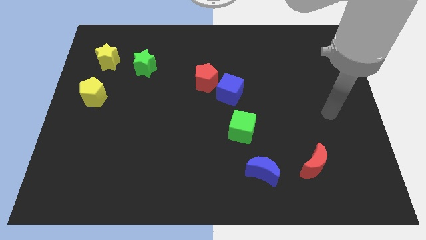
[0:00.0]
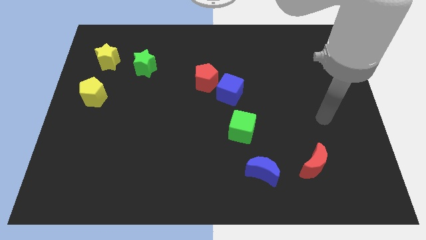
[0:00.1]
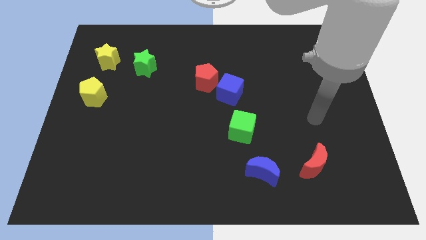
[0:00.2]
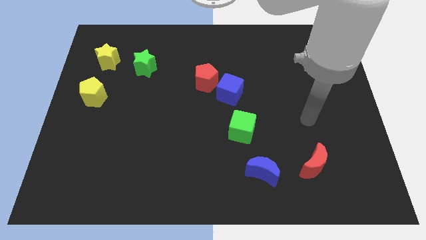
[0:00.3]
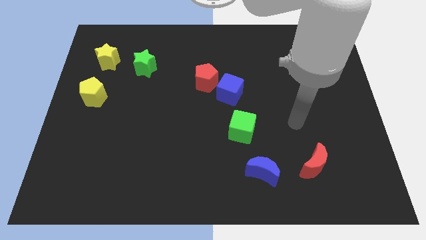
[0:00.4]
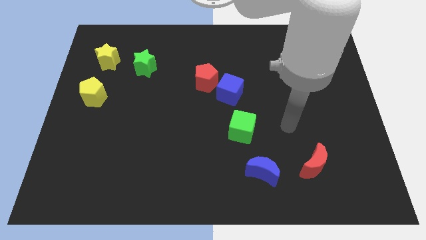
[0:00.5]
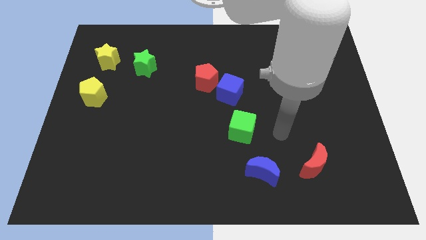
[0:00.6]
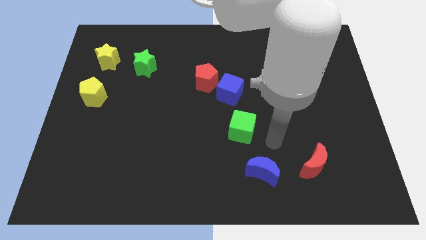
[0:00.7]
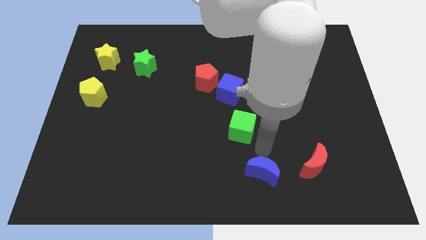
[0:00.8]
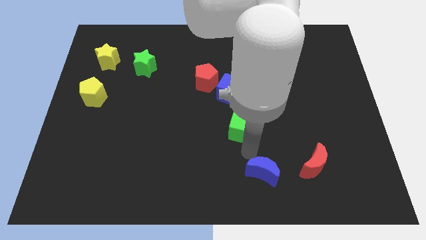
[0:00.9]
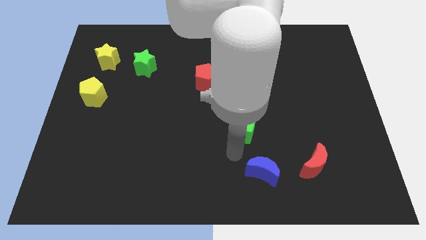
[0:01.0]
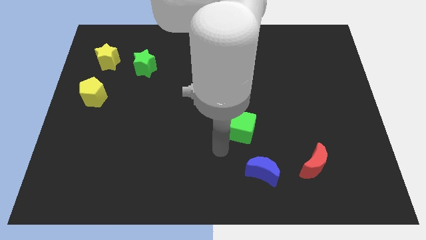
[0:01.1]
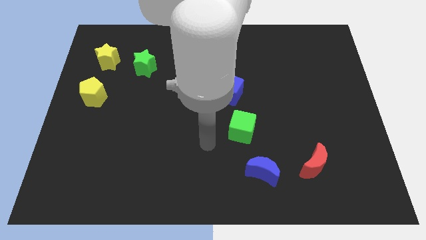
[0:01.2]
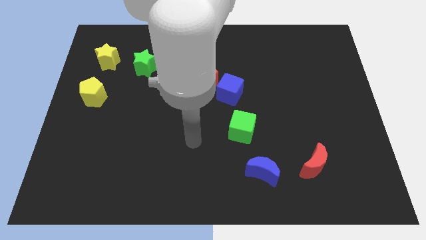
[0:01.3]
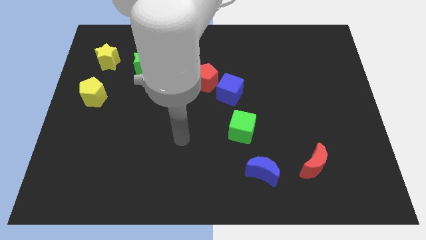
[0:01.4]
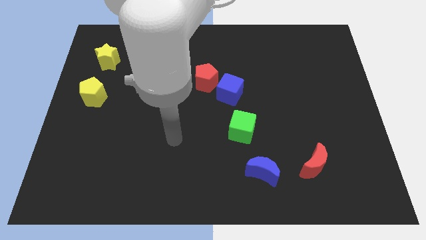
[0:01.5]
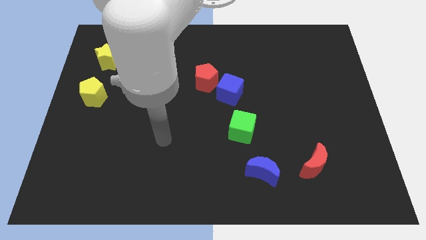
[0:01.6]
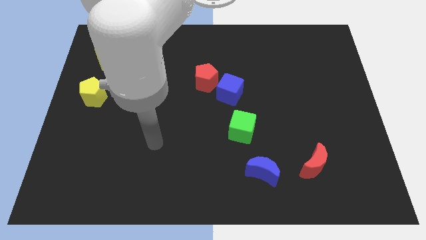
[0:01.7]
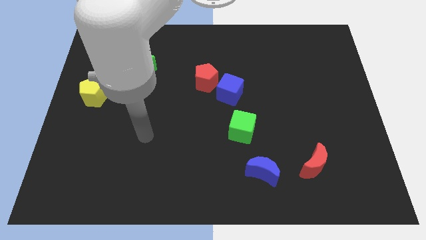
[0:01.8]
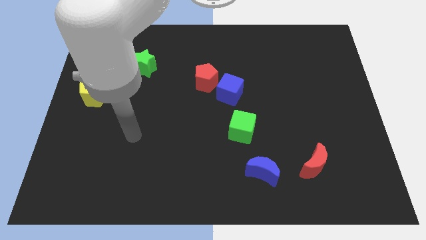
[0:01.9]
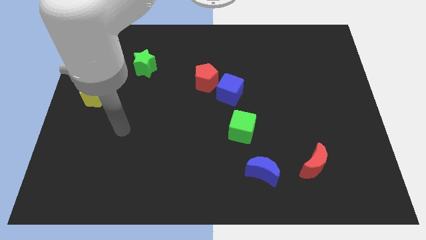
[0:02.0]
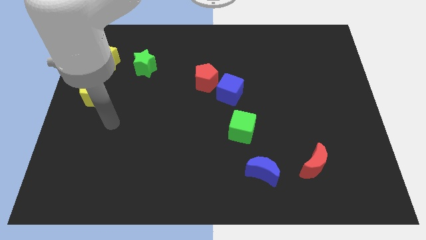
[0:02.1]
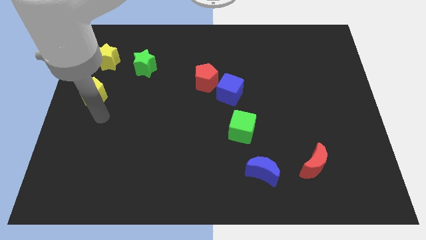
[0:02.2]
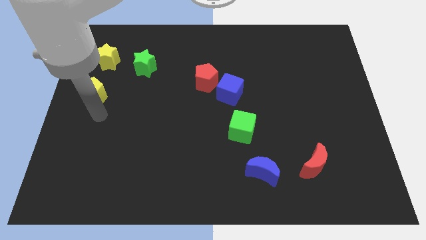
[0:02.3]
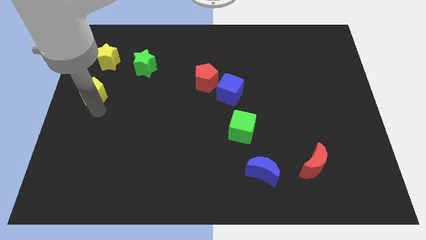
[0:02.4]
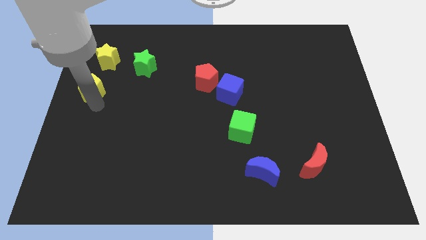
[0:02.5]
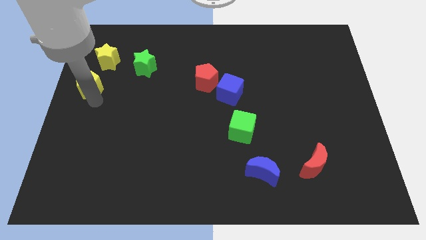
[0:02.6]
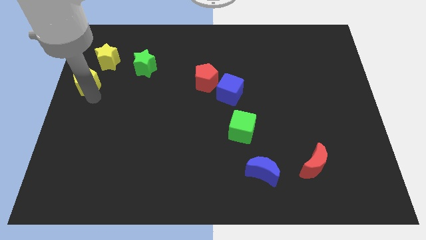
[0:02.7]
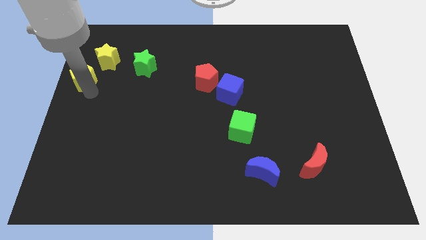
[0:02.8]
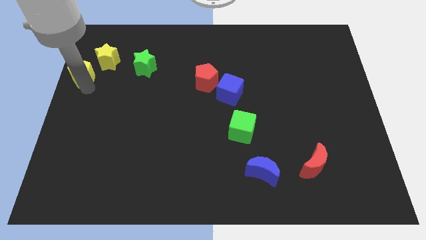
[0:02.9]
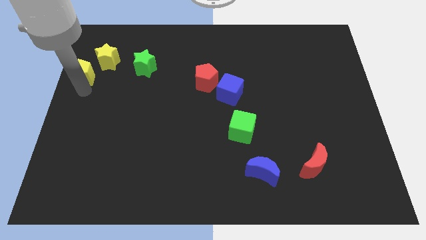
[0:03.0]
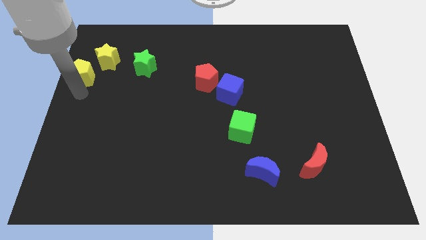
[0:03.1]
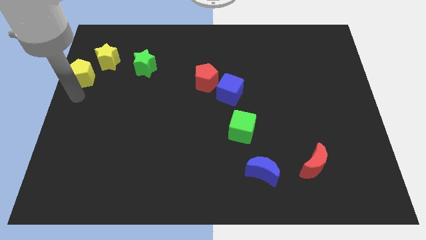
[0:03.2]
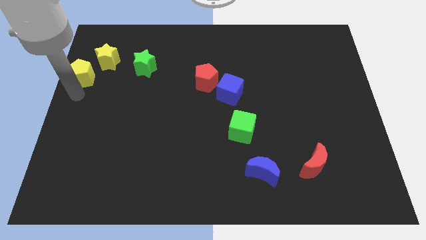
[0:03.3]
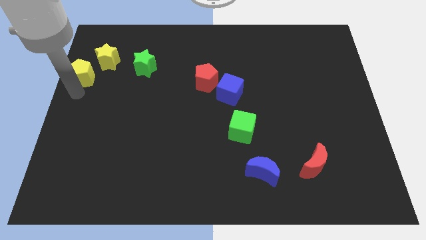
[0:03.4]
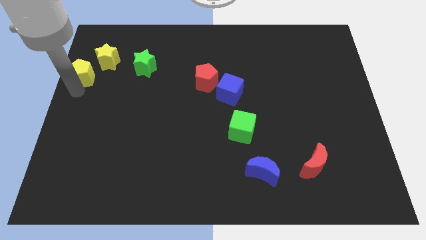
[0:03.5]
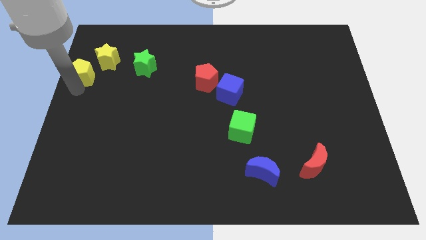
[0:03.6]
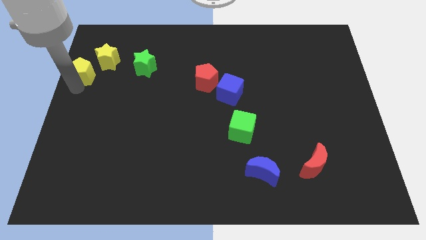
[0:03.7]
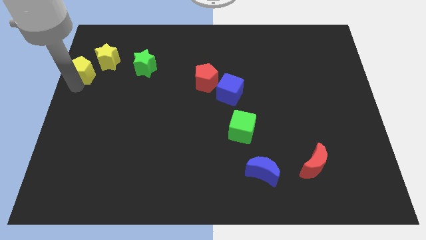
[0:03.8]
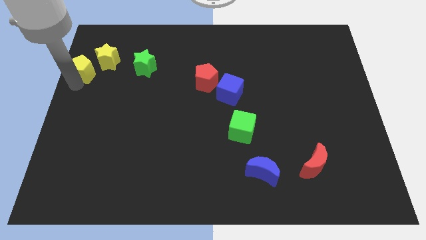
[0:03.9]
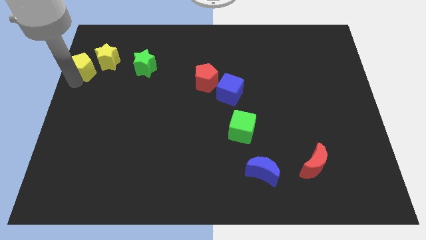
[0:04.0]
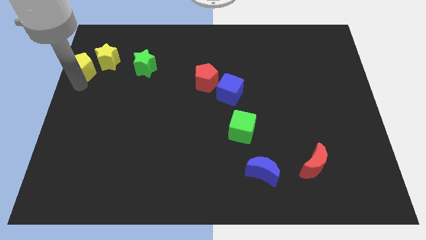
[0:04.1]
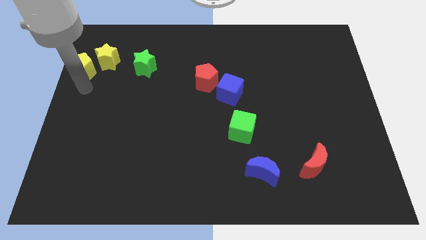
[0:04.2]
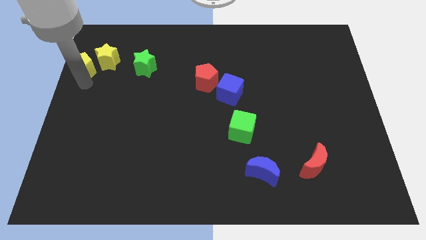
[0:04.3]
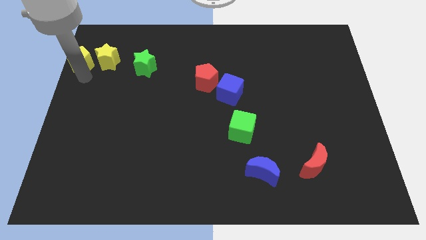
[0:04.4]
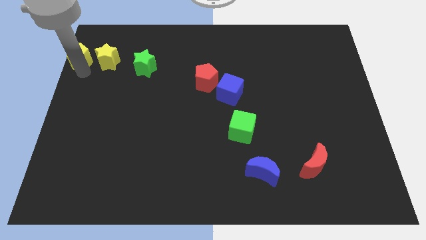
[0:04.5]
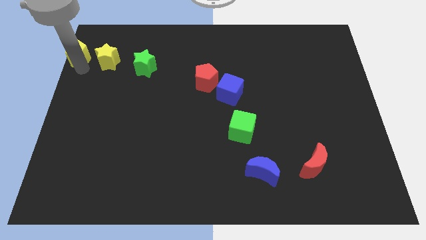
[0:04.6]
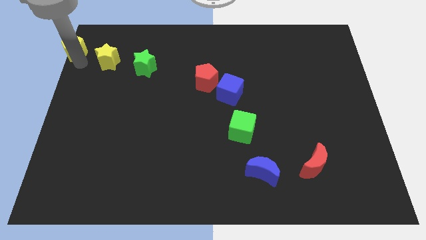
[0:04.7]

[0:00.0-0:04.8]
move the yellow pentagon to the upper left corner

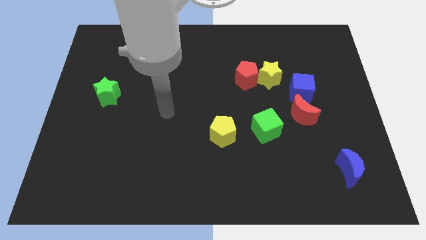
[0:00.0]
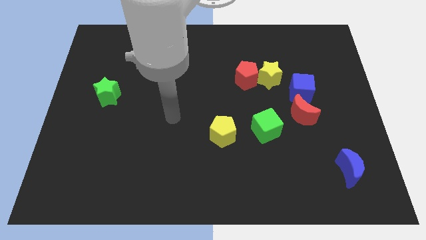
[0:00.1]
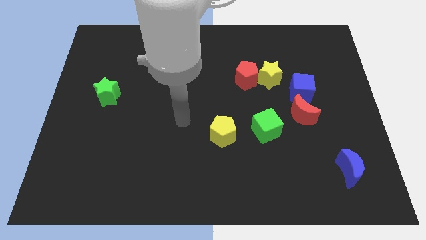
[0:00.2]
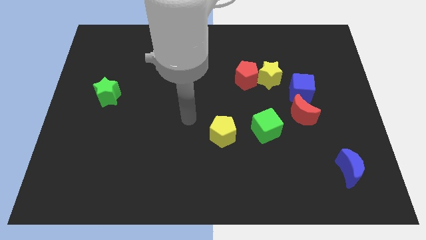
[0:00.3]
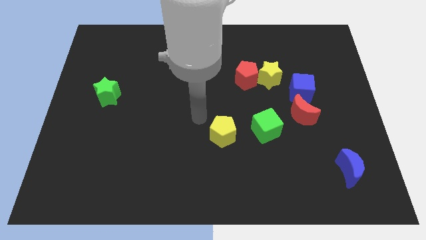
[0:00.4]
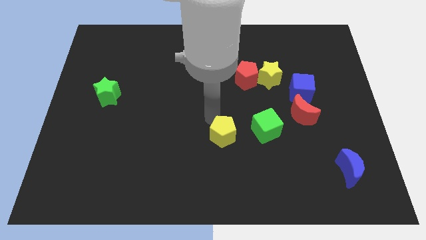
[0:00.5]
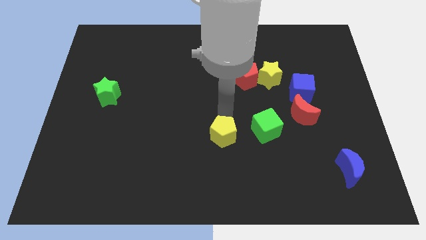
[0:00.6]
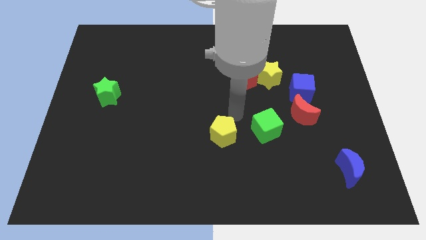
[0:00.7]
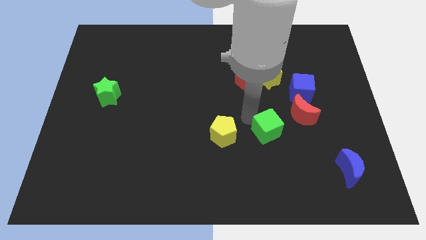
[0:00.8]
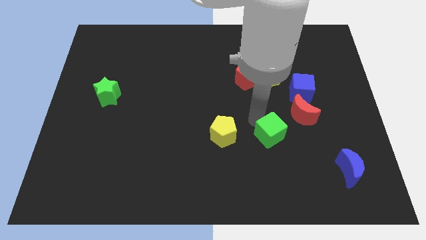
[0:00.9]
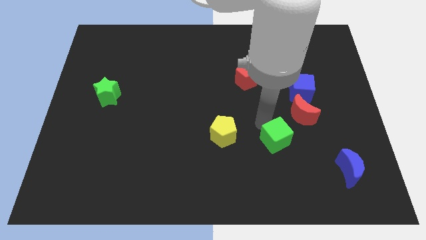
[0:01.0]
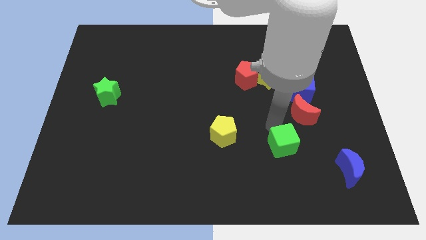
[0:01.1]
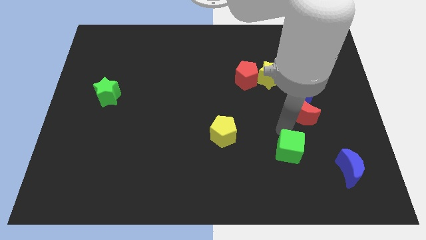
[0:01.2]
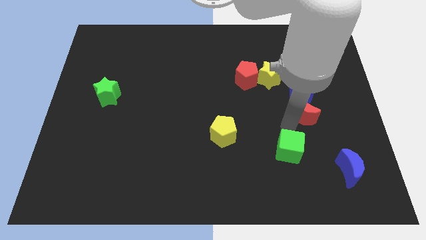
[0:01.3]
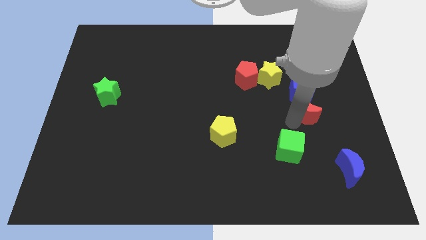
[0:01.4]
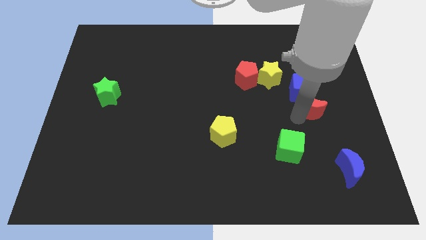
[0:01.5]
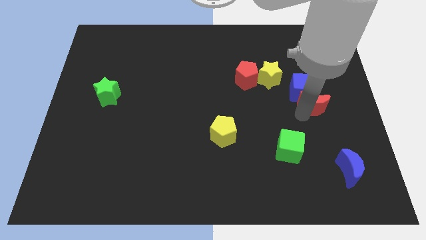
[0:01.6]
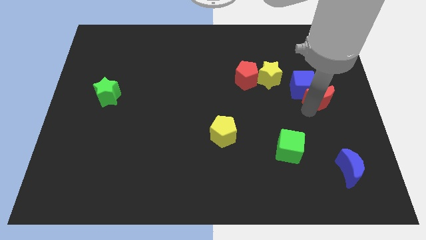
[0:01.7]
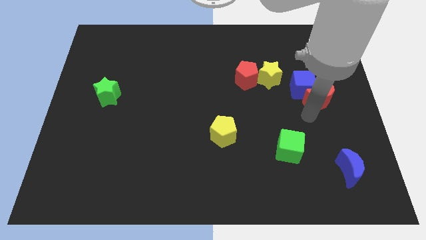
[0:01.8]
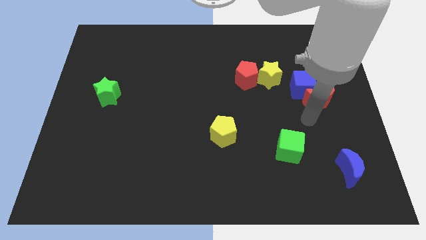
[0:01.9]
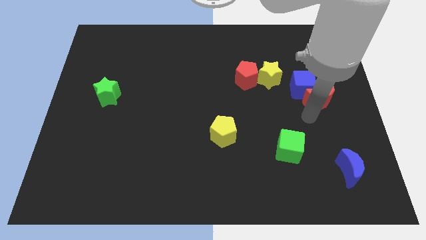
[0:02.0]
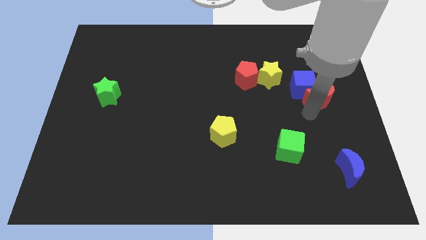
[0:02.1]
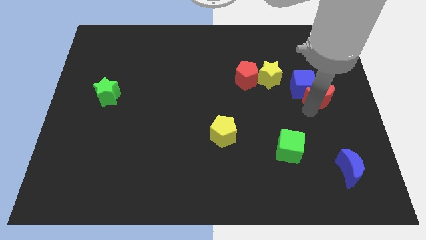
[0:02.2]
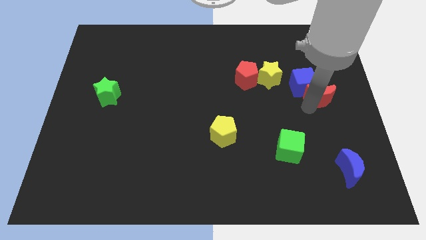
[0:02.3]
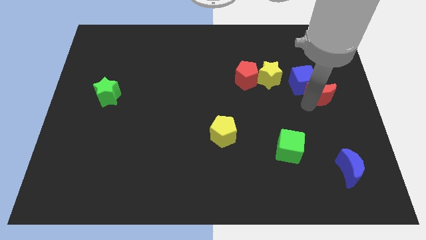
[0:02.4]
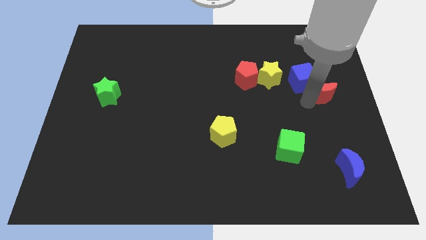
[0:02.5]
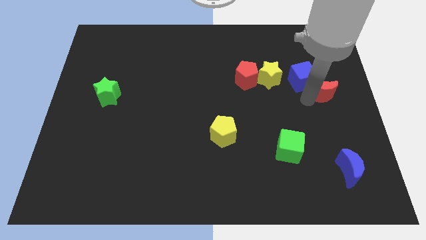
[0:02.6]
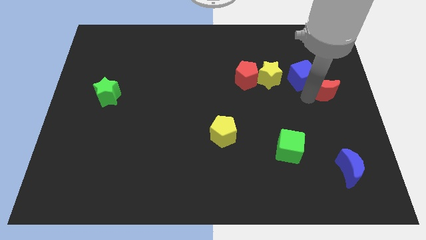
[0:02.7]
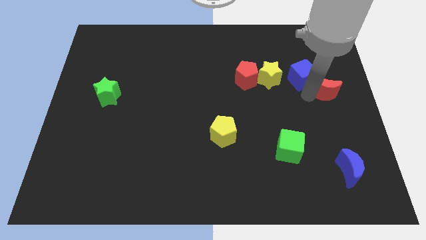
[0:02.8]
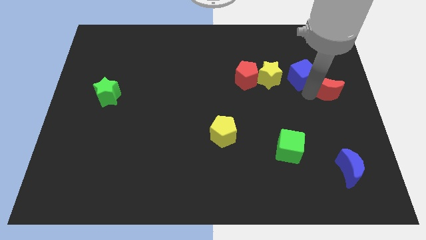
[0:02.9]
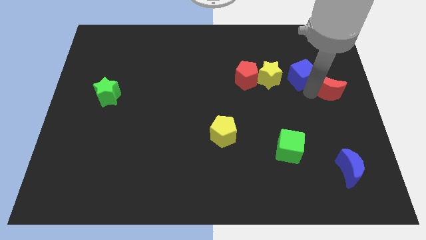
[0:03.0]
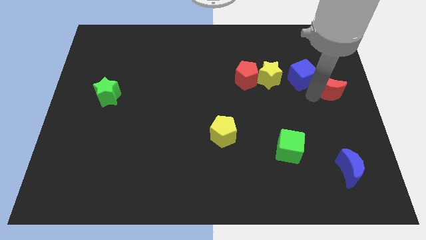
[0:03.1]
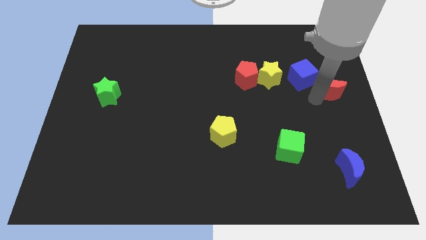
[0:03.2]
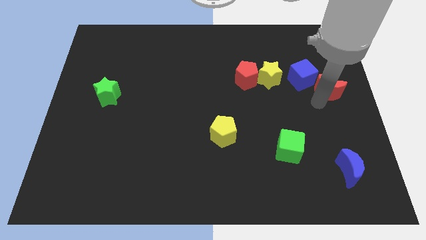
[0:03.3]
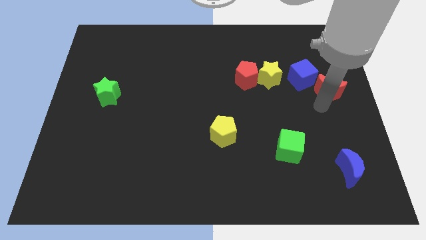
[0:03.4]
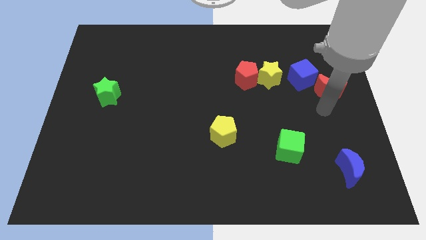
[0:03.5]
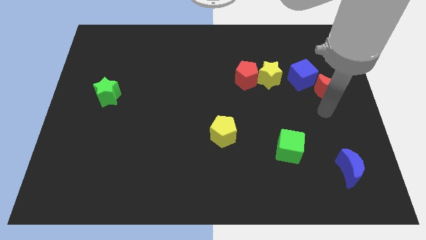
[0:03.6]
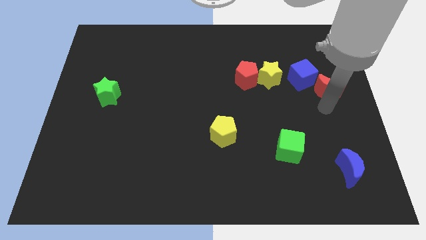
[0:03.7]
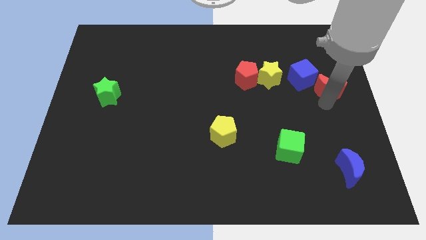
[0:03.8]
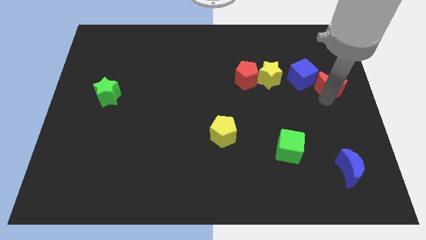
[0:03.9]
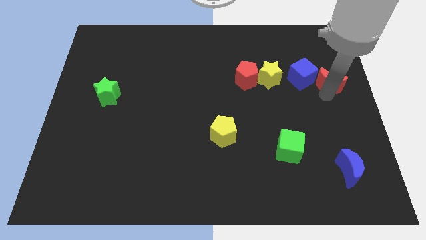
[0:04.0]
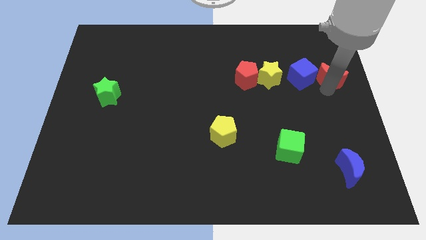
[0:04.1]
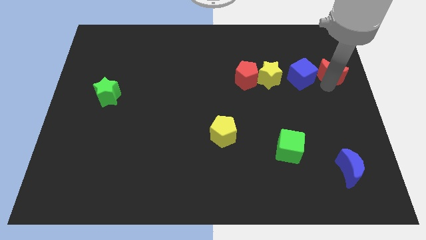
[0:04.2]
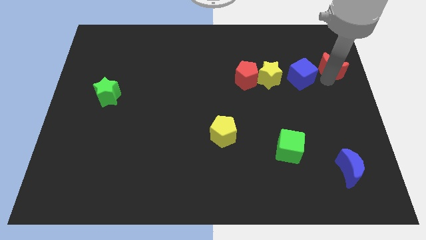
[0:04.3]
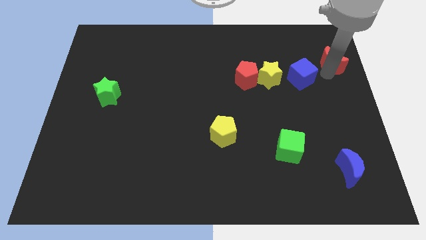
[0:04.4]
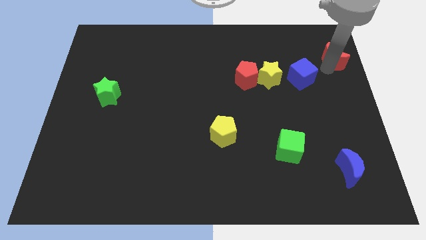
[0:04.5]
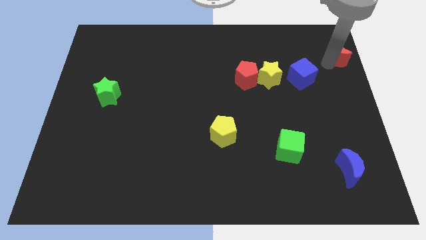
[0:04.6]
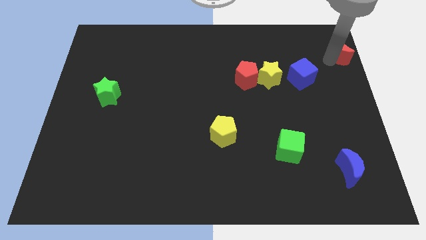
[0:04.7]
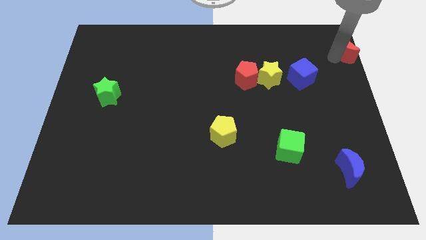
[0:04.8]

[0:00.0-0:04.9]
move the red moon to the top right of the board
